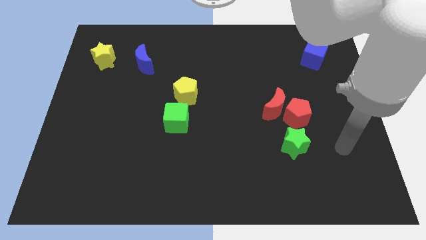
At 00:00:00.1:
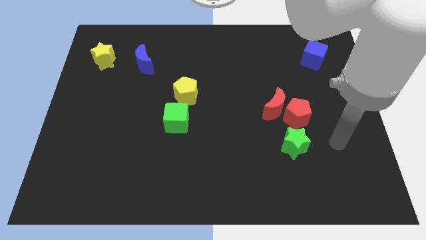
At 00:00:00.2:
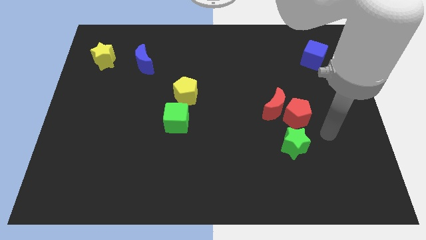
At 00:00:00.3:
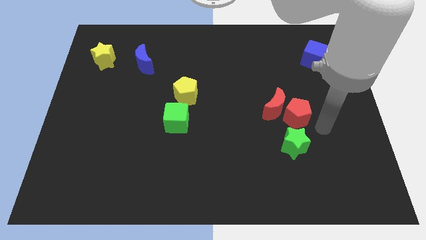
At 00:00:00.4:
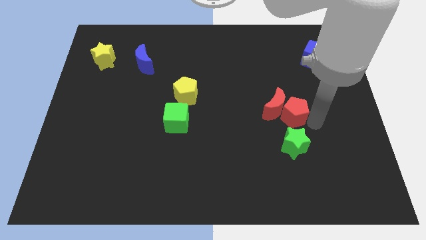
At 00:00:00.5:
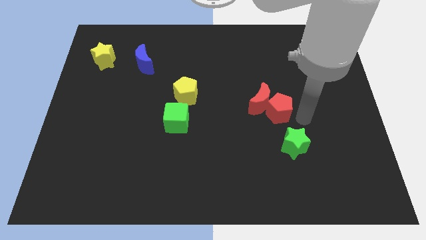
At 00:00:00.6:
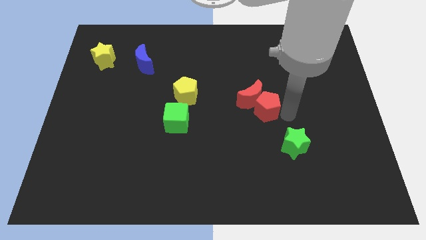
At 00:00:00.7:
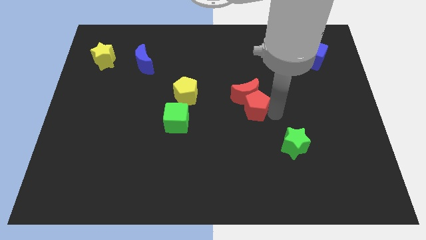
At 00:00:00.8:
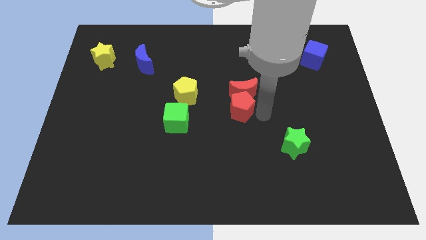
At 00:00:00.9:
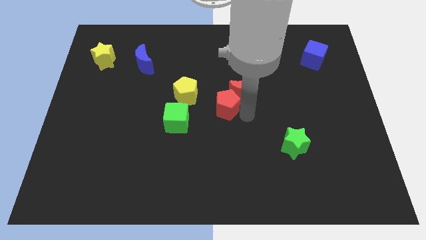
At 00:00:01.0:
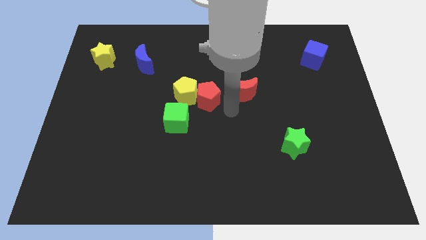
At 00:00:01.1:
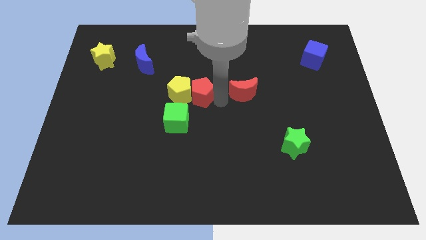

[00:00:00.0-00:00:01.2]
move the red moon away from the red pentagon

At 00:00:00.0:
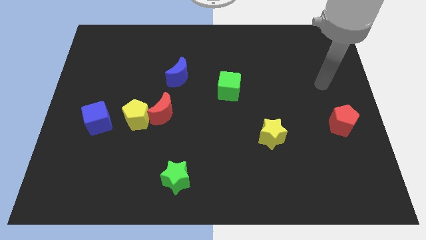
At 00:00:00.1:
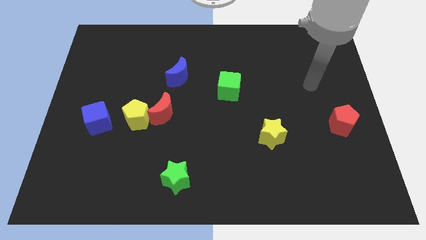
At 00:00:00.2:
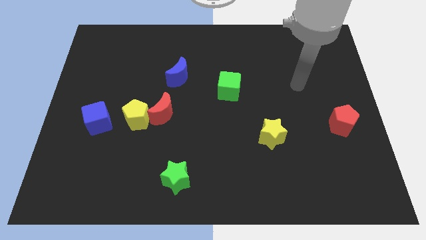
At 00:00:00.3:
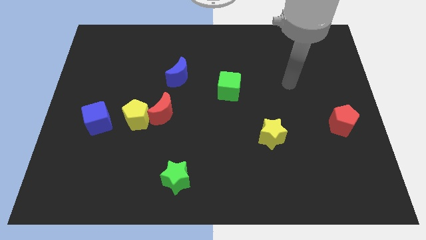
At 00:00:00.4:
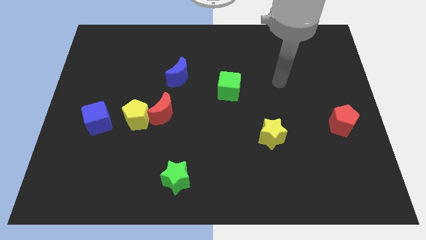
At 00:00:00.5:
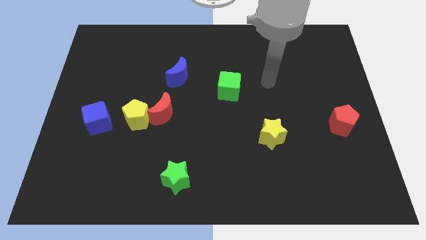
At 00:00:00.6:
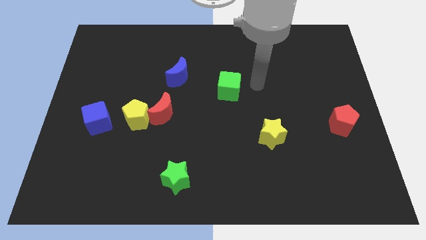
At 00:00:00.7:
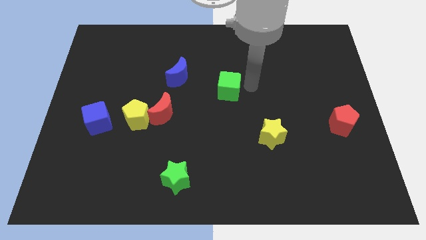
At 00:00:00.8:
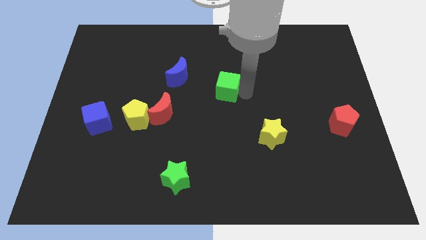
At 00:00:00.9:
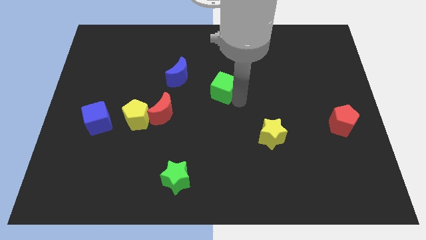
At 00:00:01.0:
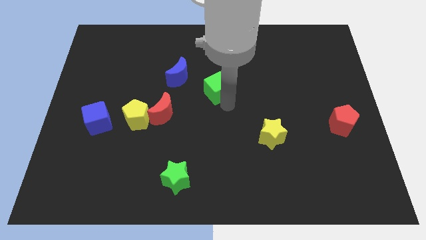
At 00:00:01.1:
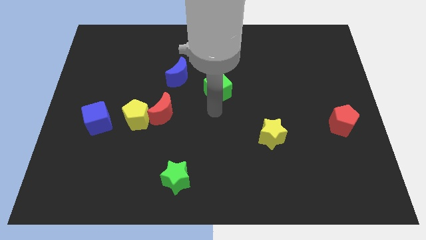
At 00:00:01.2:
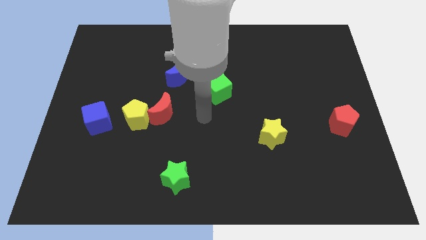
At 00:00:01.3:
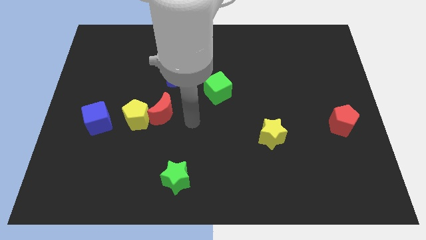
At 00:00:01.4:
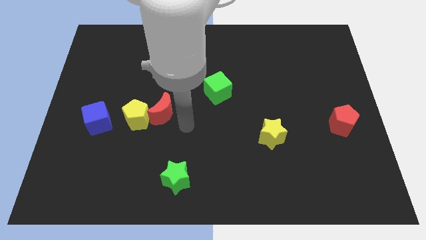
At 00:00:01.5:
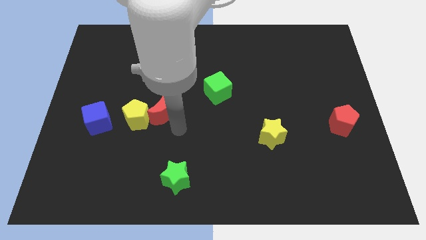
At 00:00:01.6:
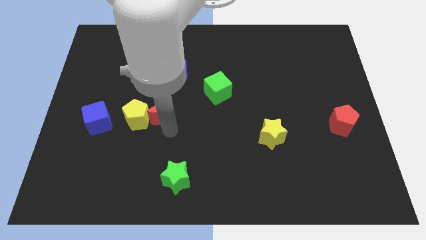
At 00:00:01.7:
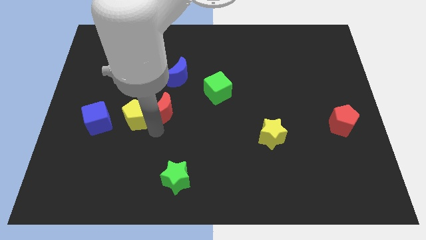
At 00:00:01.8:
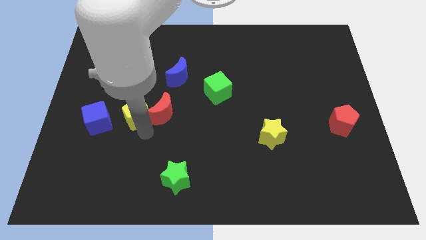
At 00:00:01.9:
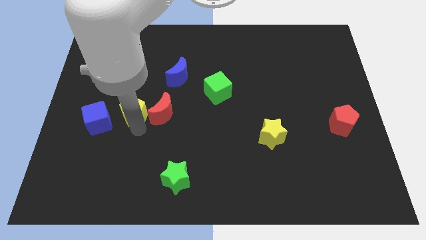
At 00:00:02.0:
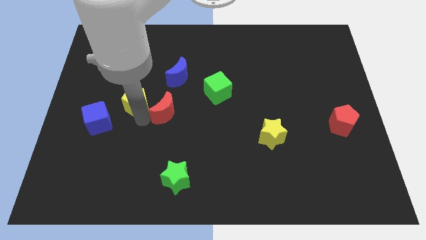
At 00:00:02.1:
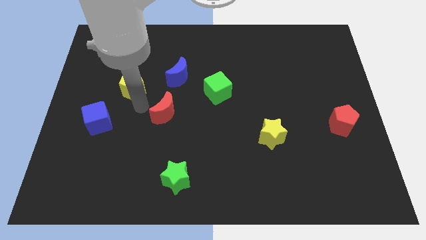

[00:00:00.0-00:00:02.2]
separate the red moon from the yellow pentagon

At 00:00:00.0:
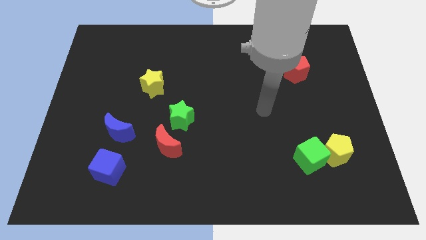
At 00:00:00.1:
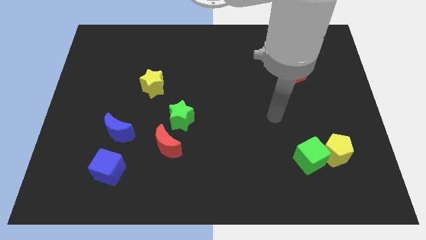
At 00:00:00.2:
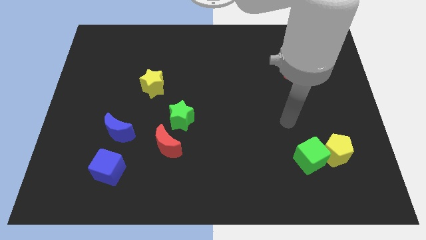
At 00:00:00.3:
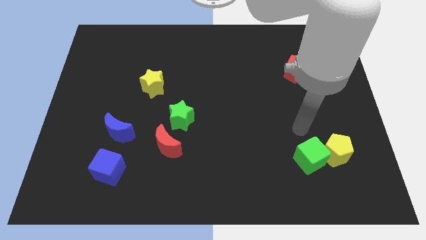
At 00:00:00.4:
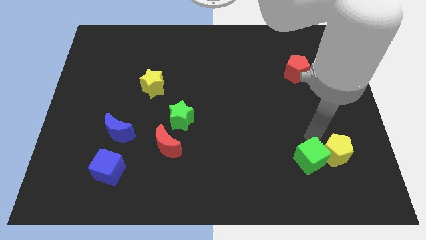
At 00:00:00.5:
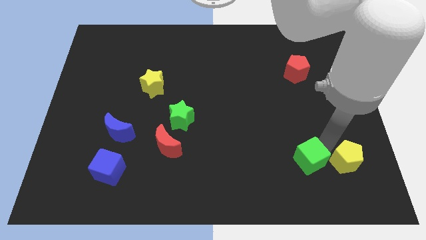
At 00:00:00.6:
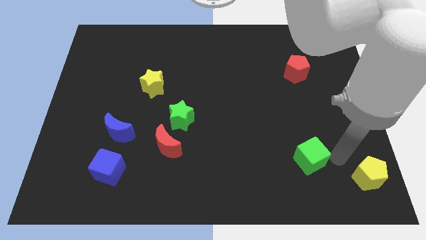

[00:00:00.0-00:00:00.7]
separate the green cube from the yellow pentagon

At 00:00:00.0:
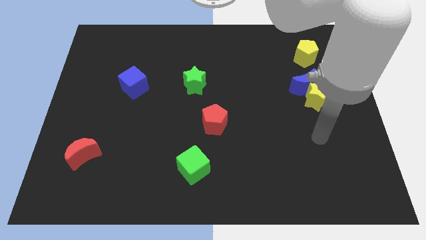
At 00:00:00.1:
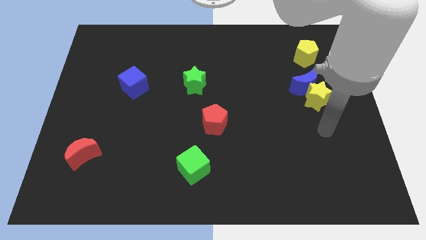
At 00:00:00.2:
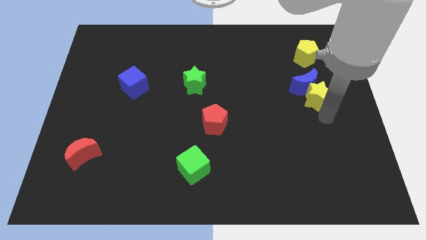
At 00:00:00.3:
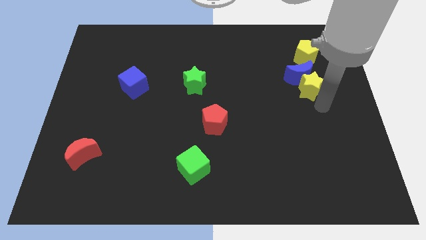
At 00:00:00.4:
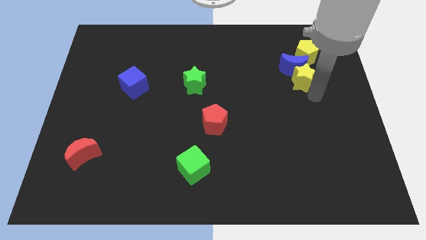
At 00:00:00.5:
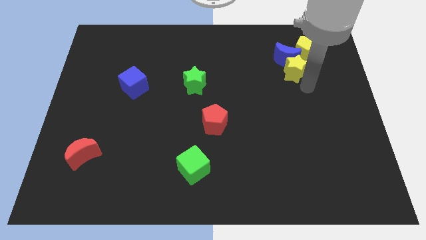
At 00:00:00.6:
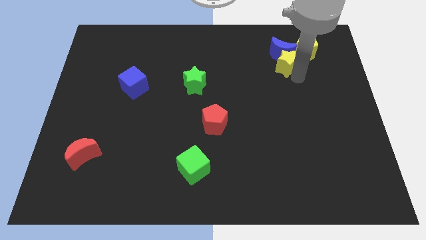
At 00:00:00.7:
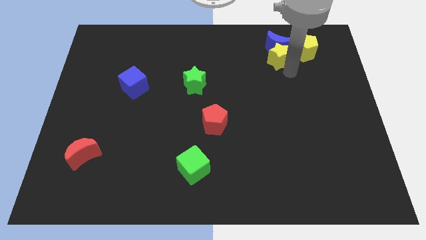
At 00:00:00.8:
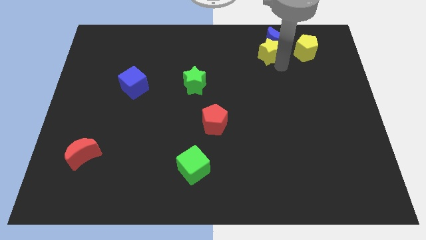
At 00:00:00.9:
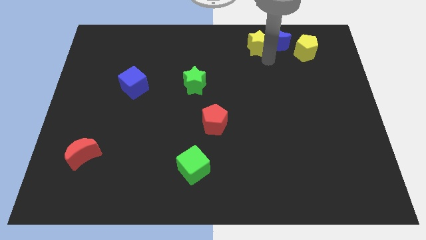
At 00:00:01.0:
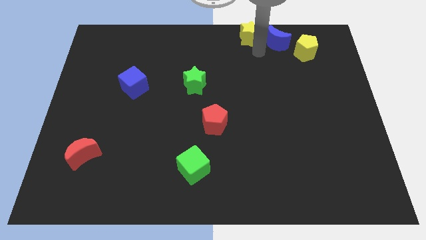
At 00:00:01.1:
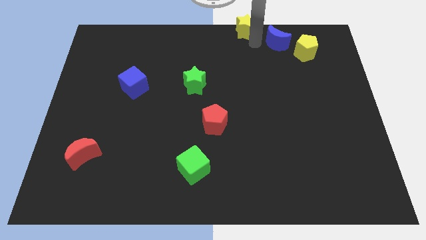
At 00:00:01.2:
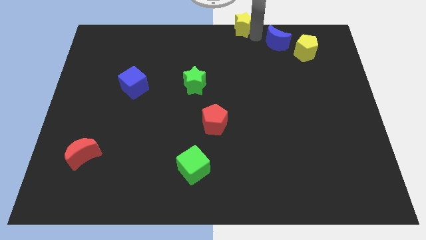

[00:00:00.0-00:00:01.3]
move the blue moon away from the yellow star

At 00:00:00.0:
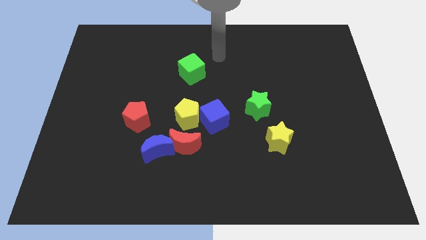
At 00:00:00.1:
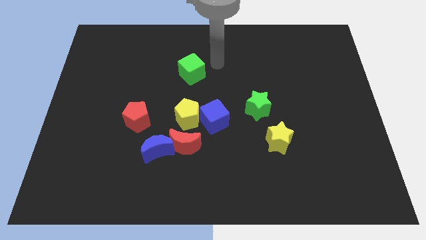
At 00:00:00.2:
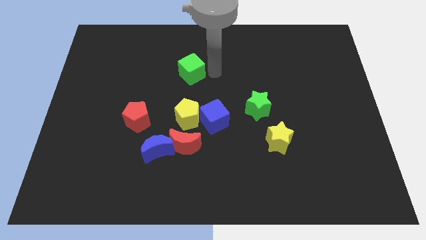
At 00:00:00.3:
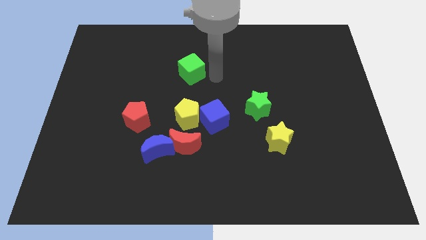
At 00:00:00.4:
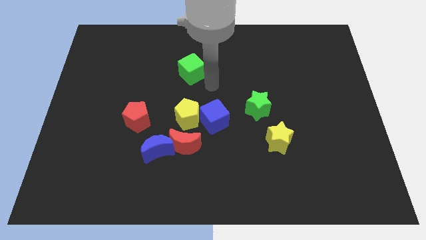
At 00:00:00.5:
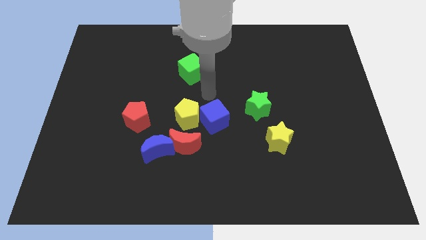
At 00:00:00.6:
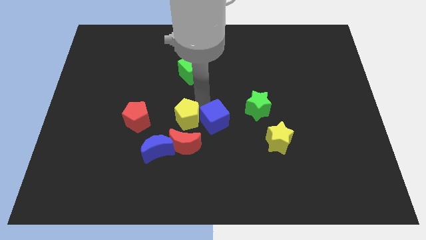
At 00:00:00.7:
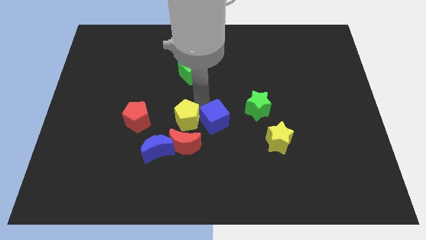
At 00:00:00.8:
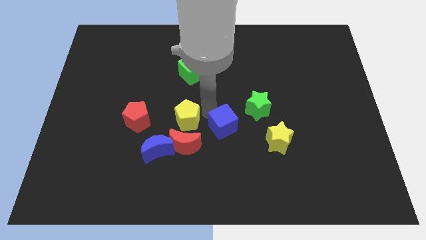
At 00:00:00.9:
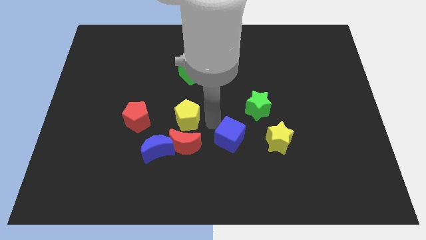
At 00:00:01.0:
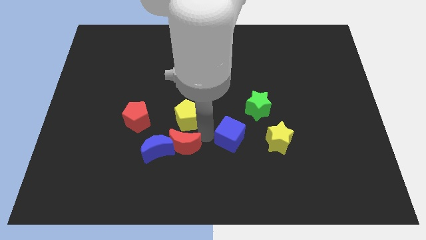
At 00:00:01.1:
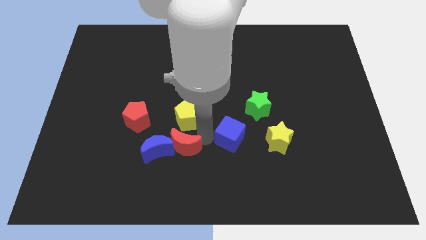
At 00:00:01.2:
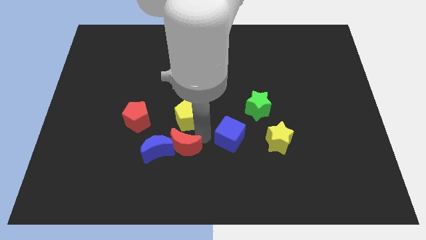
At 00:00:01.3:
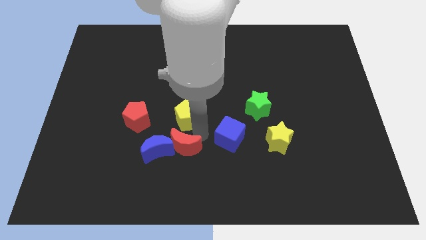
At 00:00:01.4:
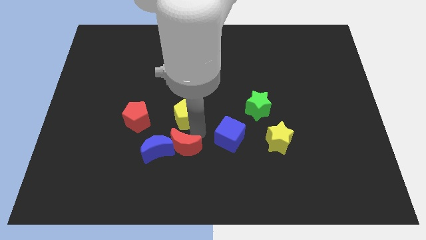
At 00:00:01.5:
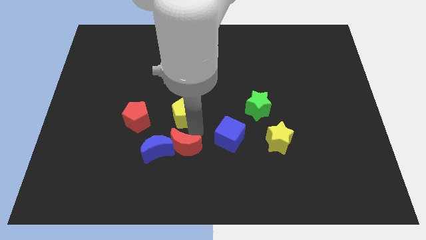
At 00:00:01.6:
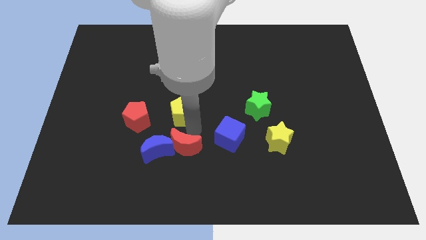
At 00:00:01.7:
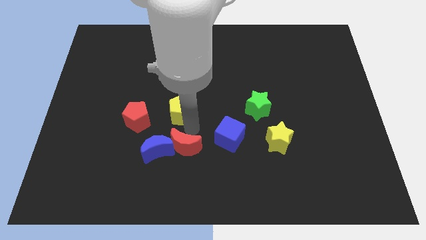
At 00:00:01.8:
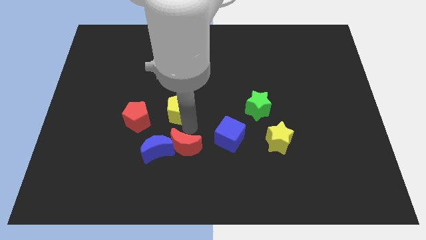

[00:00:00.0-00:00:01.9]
pull the yellow pentagon apart from the blue cube and red moon

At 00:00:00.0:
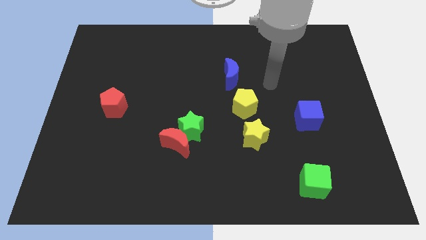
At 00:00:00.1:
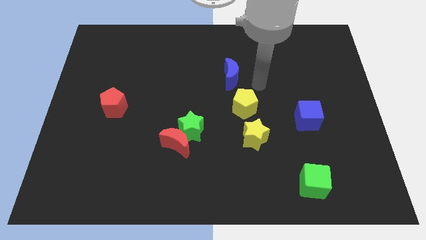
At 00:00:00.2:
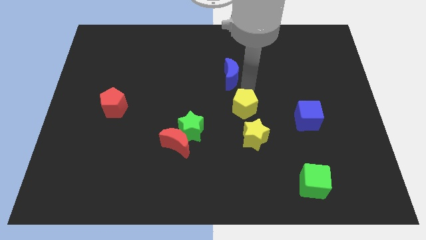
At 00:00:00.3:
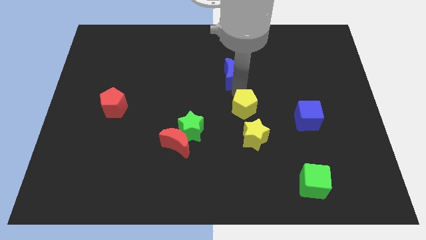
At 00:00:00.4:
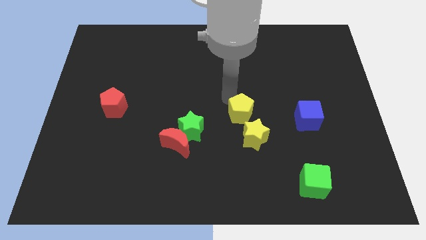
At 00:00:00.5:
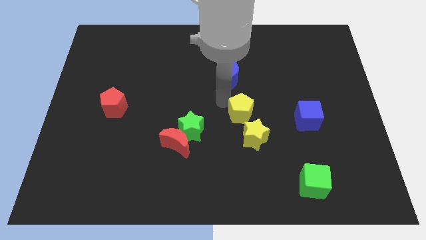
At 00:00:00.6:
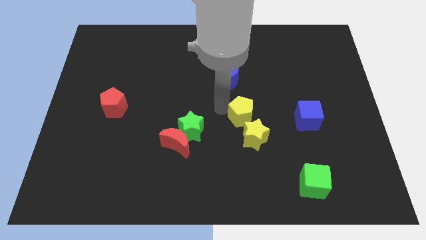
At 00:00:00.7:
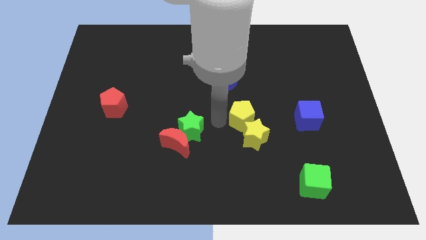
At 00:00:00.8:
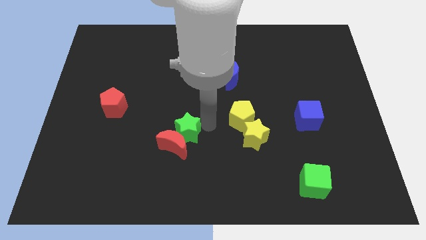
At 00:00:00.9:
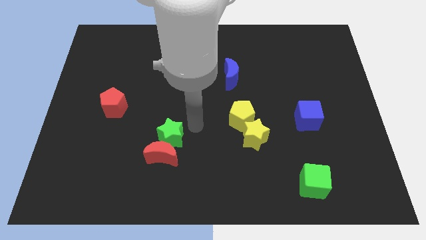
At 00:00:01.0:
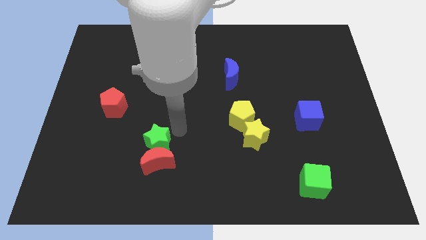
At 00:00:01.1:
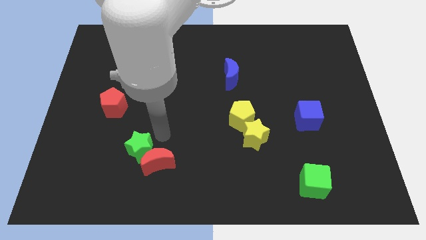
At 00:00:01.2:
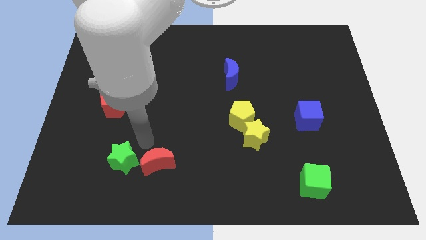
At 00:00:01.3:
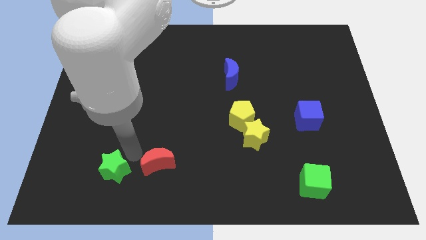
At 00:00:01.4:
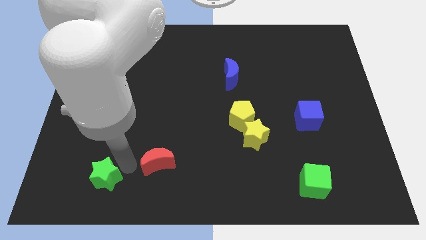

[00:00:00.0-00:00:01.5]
pull the red moon apart from the green star

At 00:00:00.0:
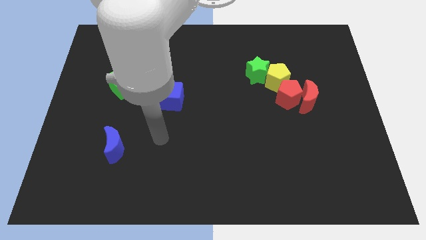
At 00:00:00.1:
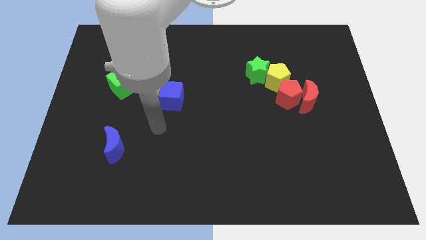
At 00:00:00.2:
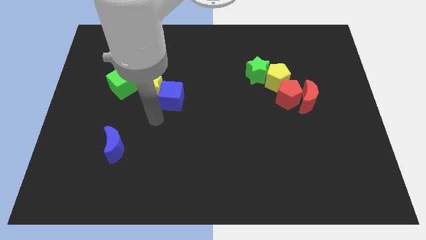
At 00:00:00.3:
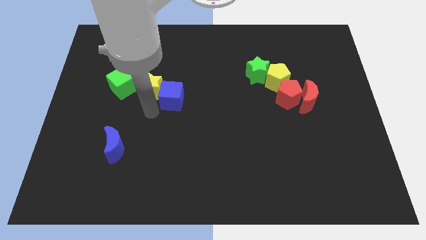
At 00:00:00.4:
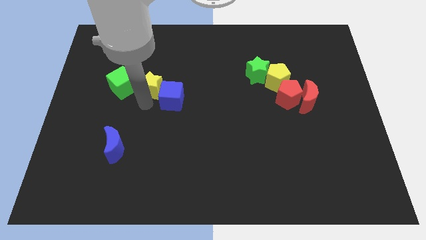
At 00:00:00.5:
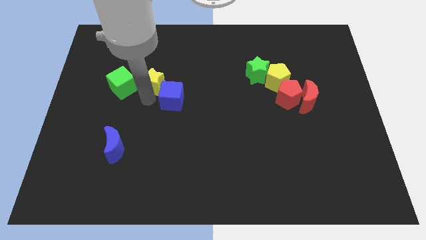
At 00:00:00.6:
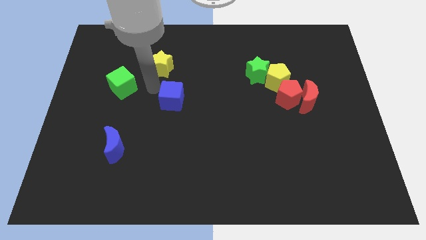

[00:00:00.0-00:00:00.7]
separate the blue cube from the yellow star
